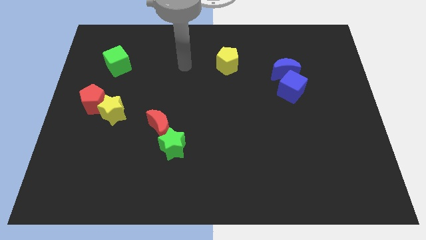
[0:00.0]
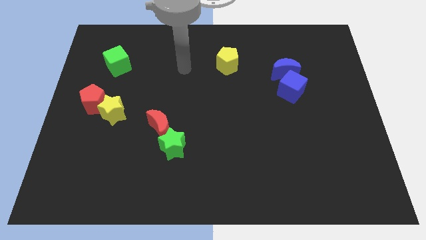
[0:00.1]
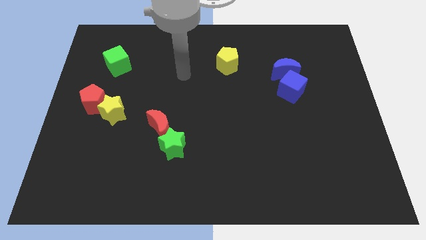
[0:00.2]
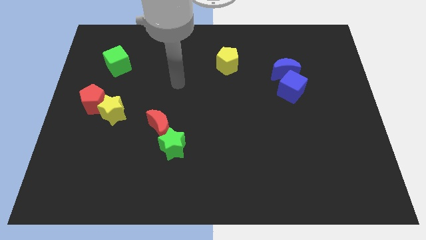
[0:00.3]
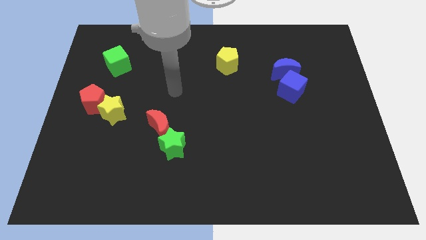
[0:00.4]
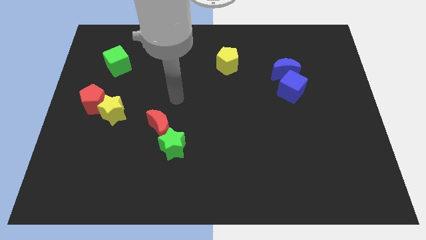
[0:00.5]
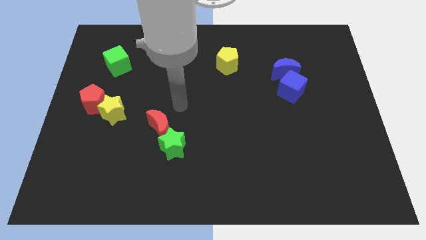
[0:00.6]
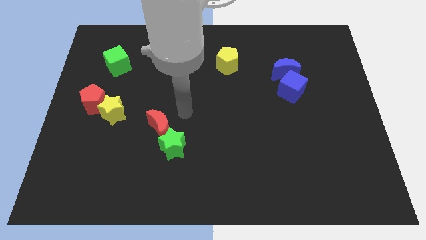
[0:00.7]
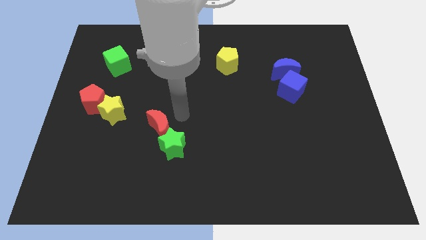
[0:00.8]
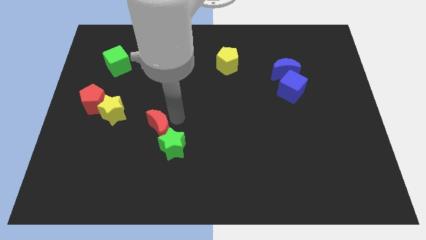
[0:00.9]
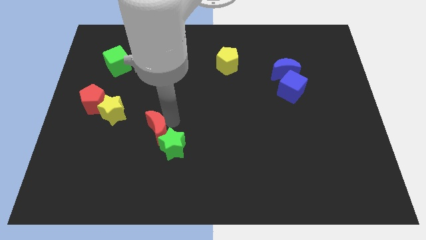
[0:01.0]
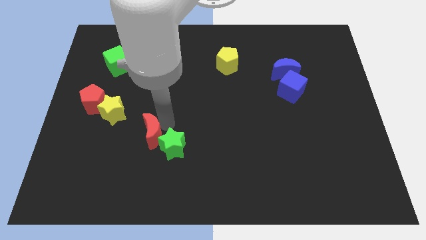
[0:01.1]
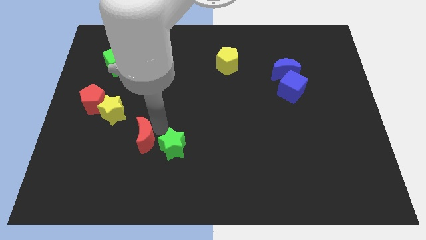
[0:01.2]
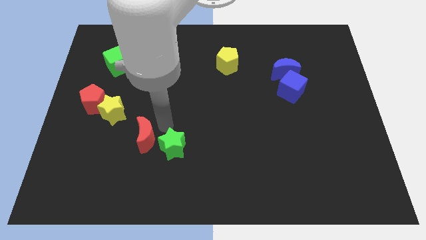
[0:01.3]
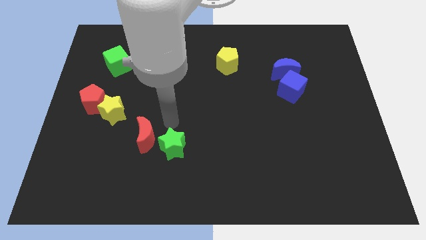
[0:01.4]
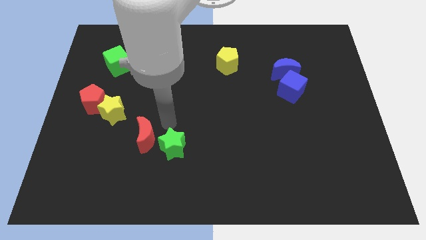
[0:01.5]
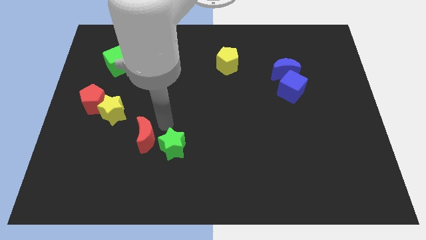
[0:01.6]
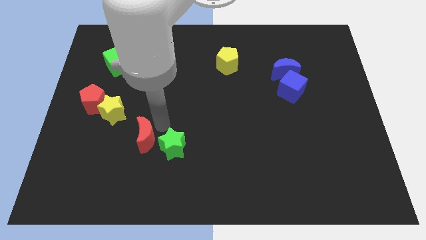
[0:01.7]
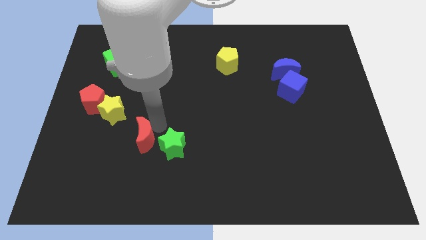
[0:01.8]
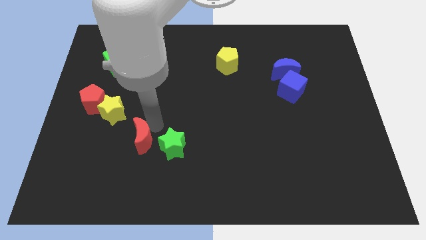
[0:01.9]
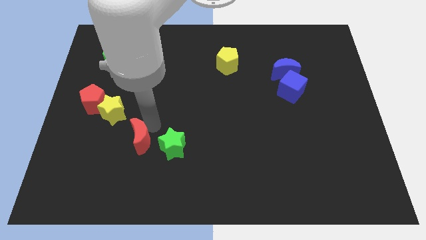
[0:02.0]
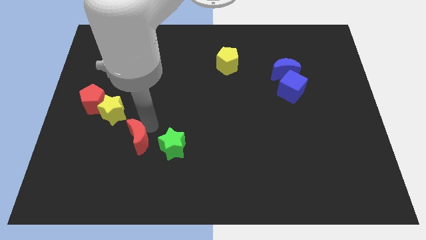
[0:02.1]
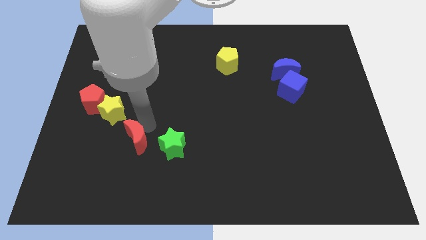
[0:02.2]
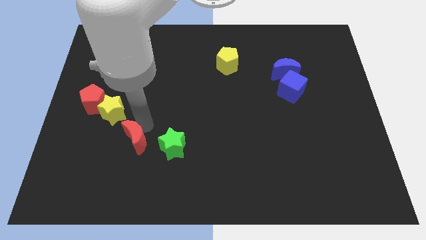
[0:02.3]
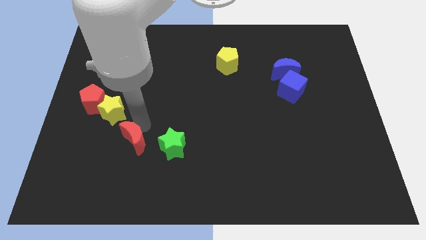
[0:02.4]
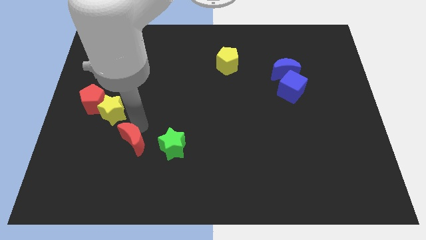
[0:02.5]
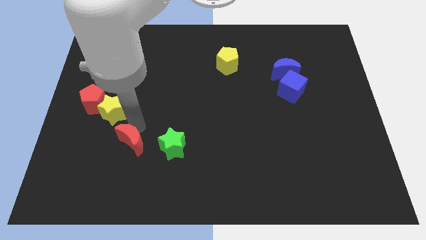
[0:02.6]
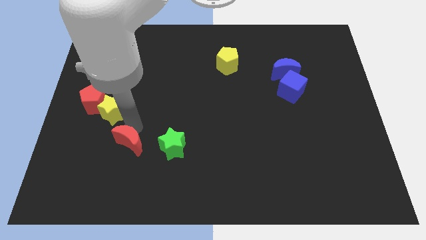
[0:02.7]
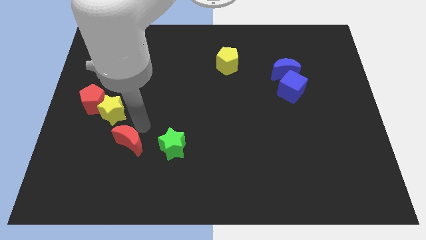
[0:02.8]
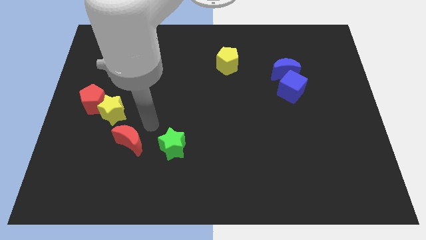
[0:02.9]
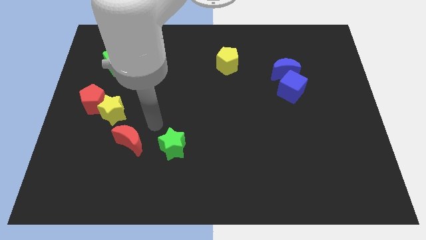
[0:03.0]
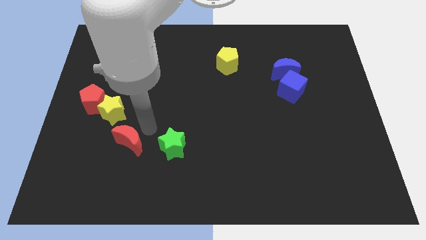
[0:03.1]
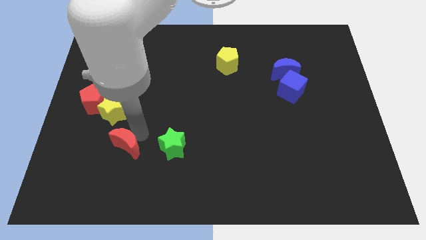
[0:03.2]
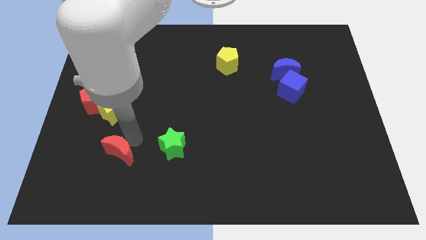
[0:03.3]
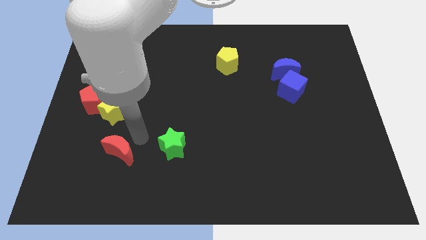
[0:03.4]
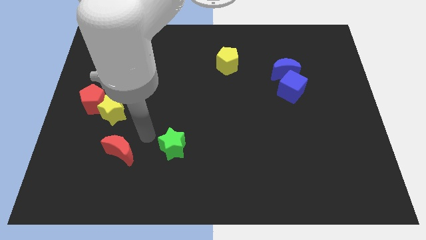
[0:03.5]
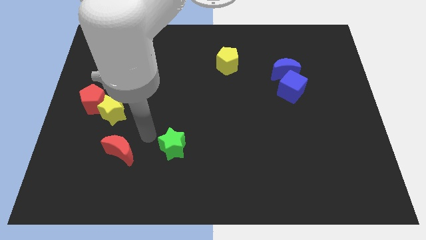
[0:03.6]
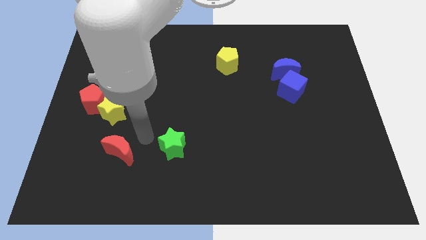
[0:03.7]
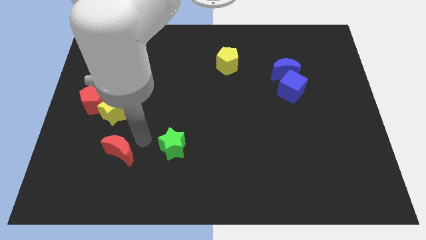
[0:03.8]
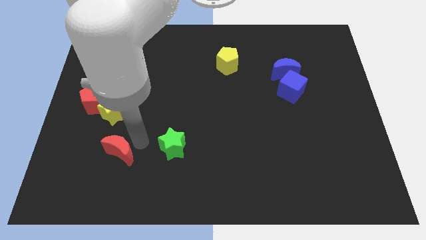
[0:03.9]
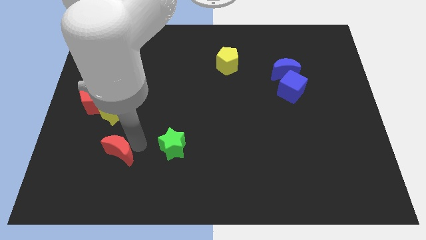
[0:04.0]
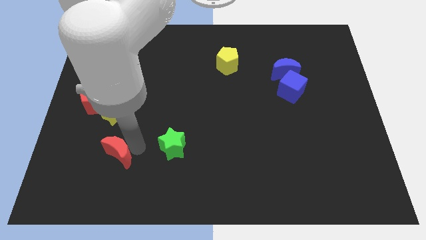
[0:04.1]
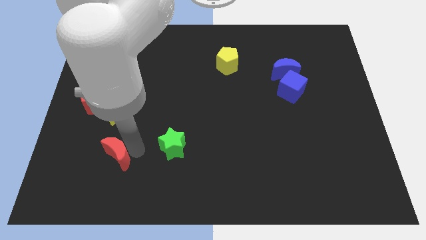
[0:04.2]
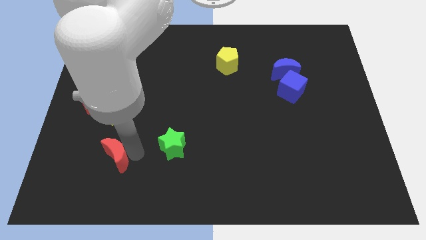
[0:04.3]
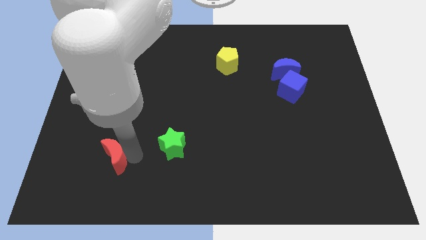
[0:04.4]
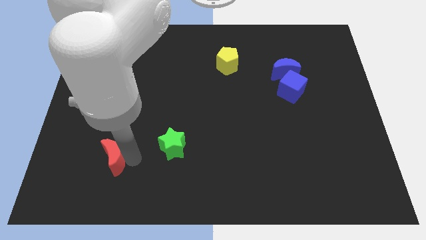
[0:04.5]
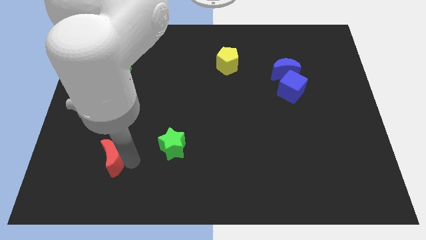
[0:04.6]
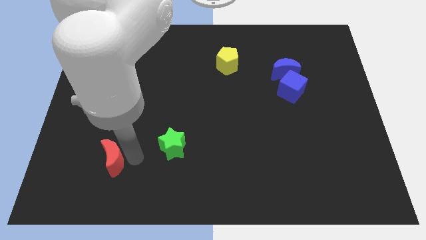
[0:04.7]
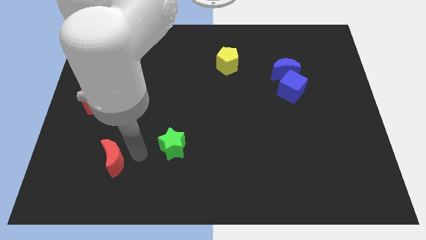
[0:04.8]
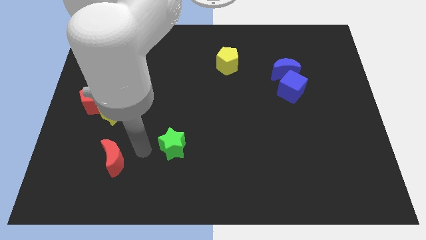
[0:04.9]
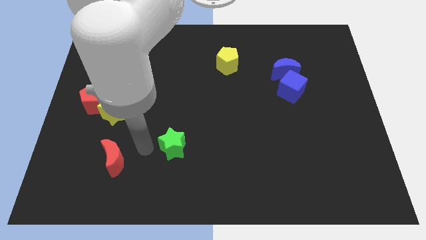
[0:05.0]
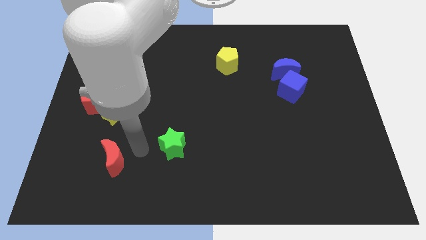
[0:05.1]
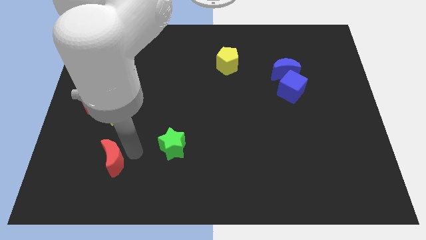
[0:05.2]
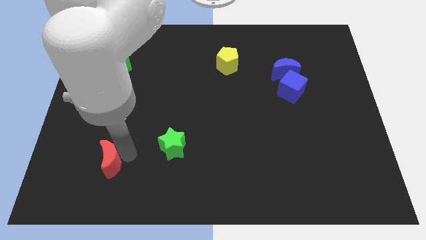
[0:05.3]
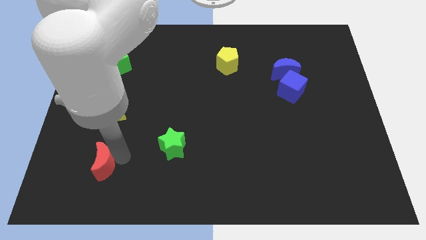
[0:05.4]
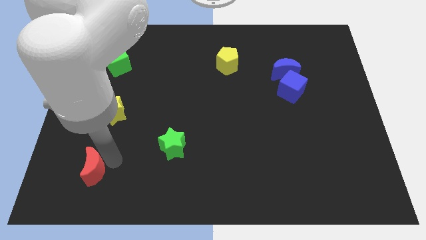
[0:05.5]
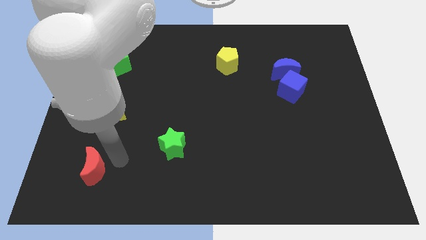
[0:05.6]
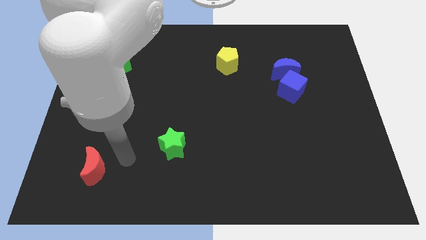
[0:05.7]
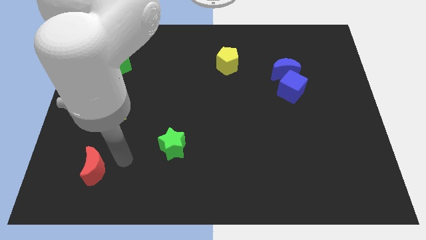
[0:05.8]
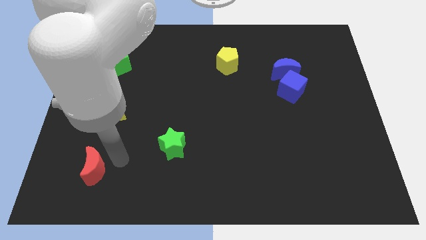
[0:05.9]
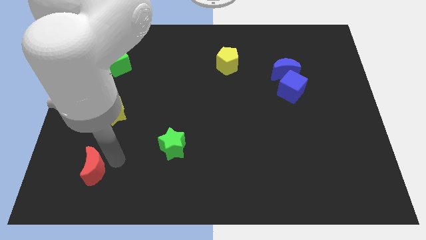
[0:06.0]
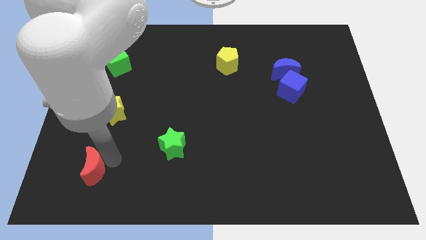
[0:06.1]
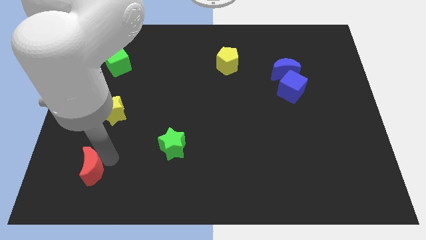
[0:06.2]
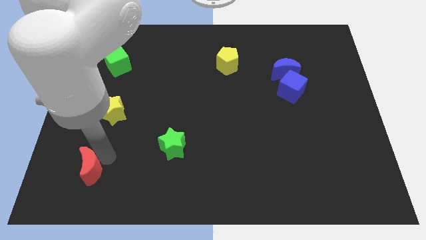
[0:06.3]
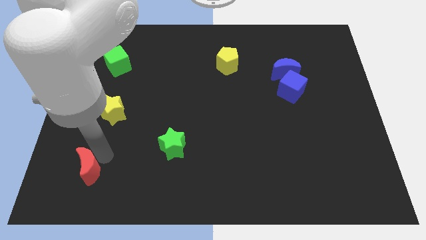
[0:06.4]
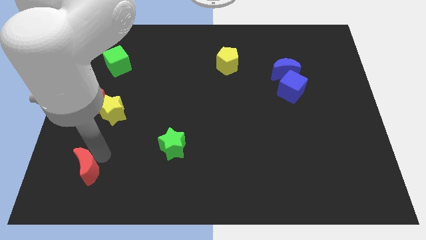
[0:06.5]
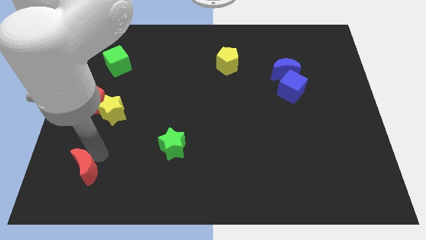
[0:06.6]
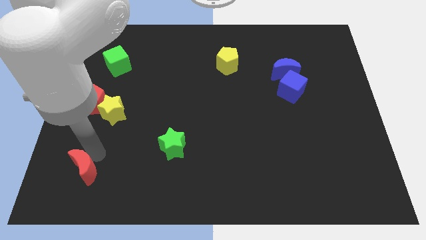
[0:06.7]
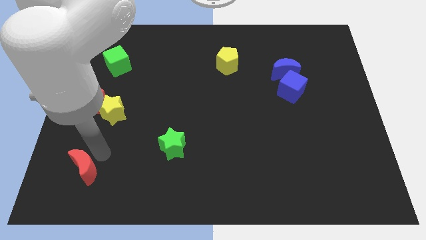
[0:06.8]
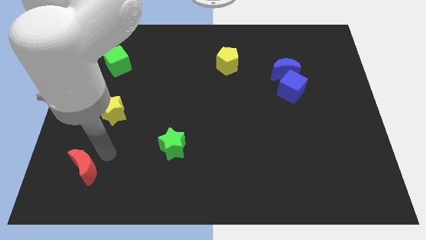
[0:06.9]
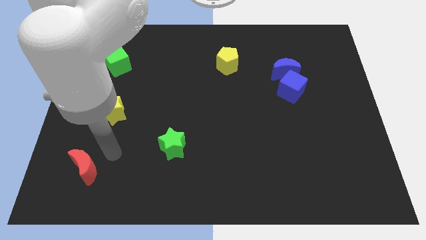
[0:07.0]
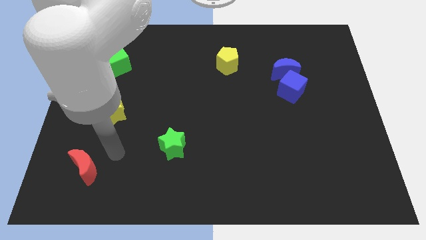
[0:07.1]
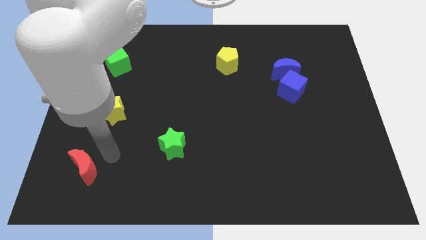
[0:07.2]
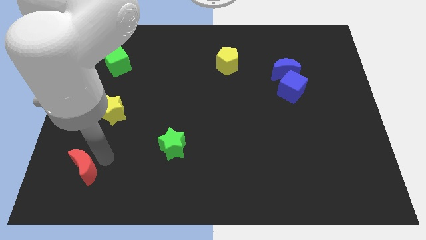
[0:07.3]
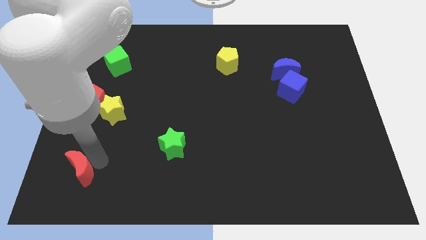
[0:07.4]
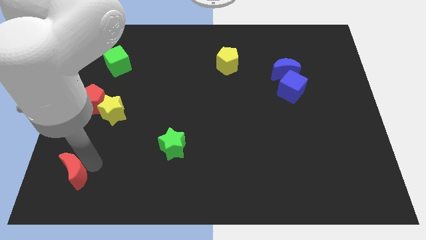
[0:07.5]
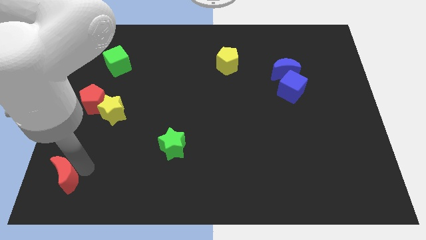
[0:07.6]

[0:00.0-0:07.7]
push the red moon to the bottom left corner
